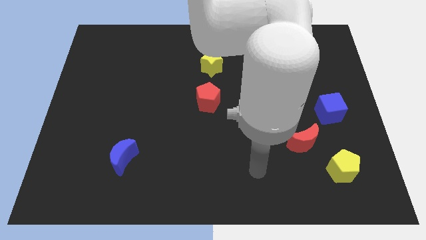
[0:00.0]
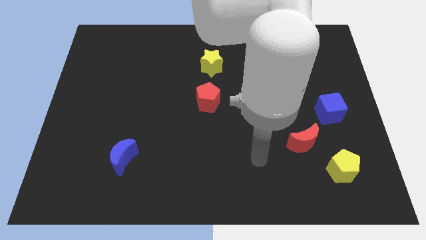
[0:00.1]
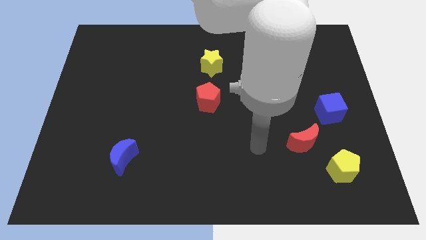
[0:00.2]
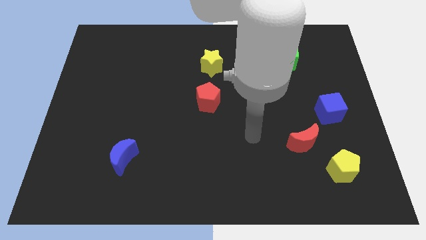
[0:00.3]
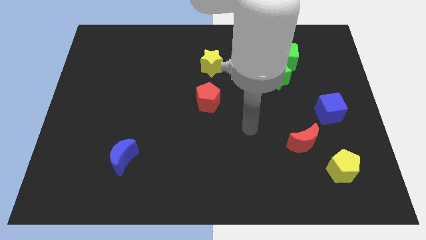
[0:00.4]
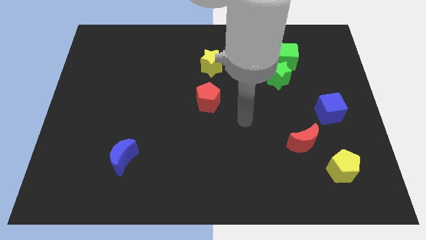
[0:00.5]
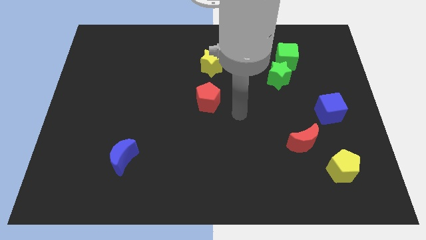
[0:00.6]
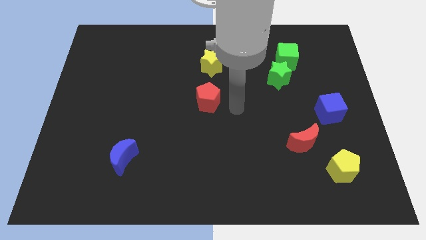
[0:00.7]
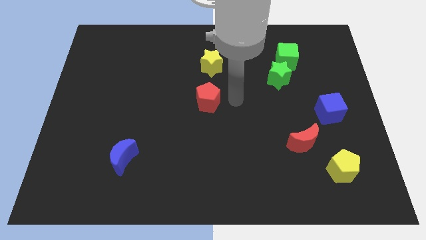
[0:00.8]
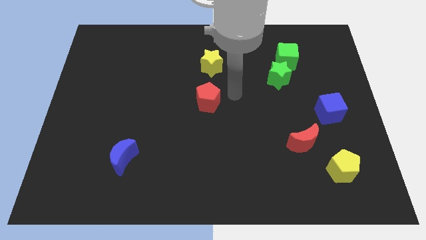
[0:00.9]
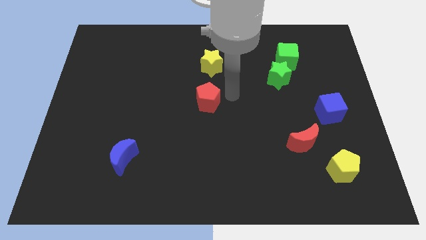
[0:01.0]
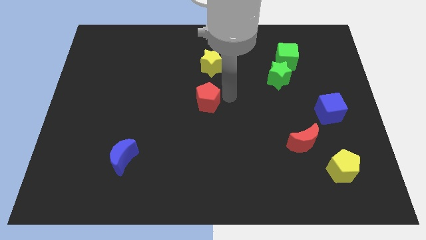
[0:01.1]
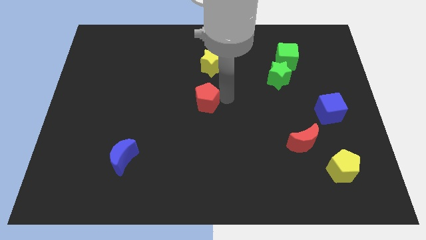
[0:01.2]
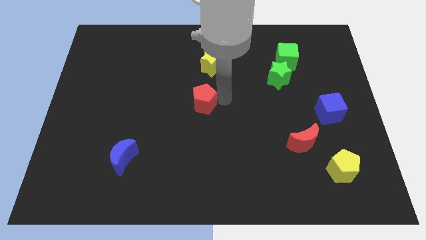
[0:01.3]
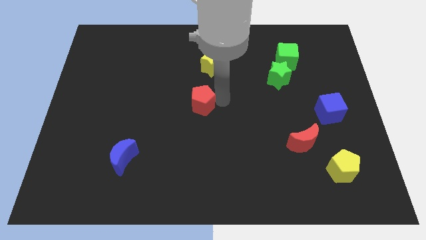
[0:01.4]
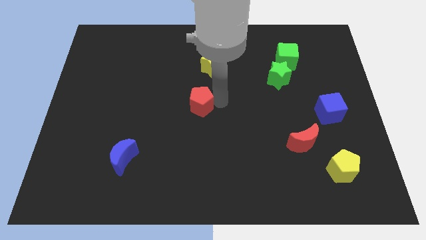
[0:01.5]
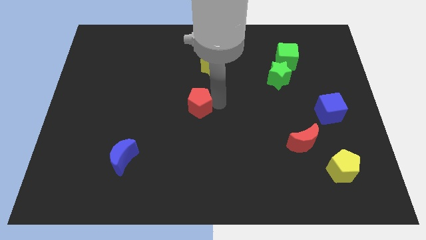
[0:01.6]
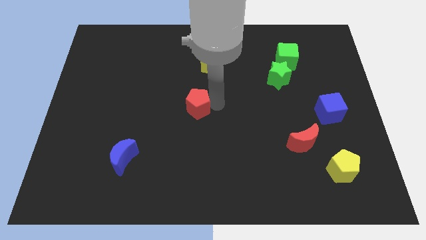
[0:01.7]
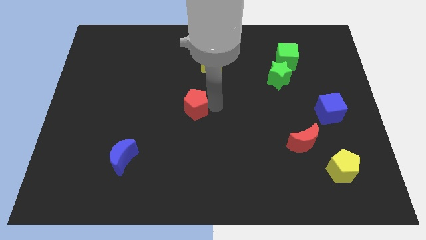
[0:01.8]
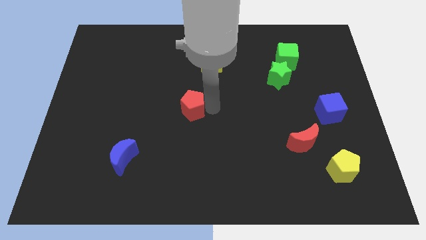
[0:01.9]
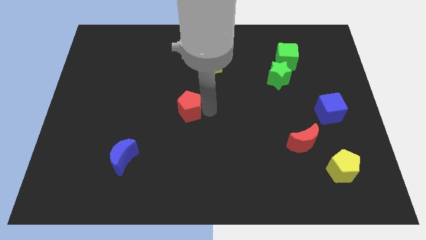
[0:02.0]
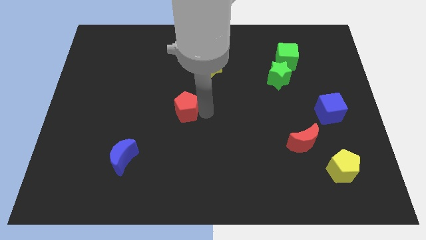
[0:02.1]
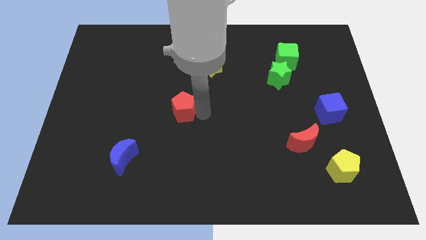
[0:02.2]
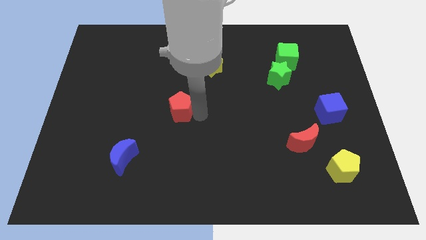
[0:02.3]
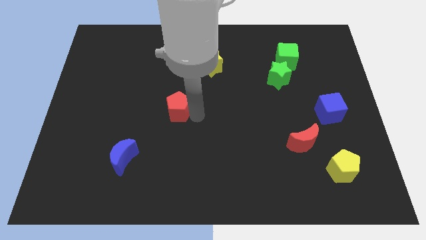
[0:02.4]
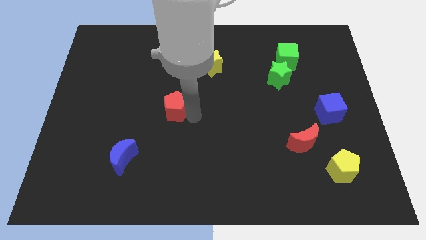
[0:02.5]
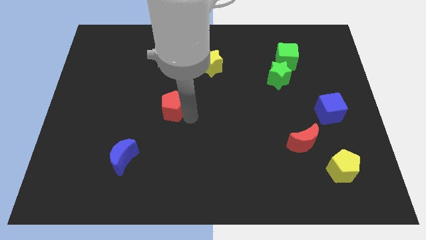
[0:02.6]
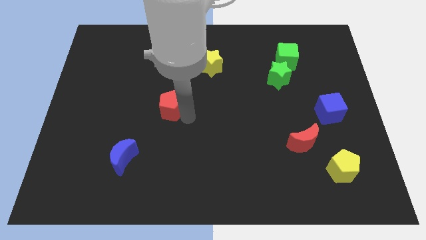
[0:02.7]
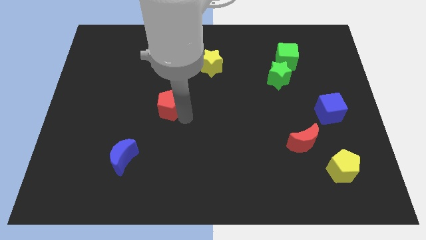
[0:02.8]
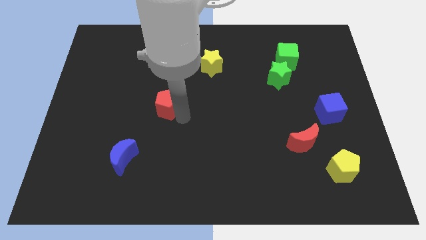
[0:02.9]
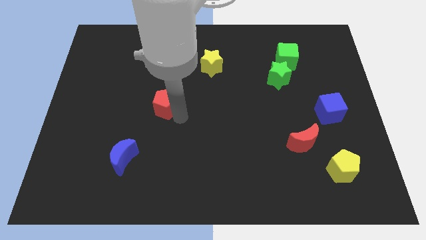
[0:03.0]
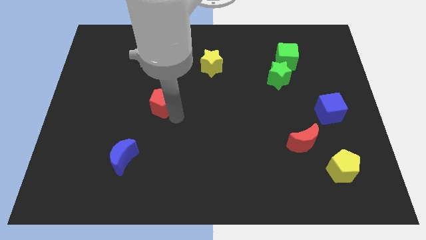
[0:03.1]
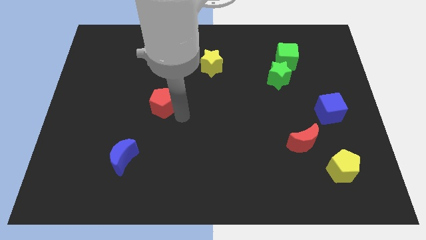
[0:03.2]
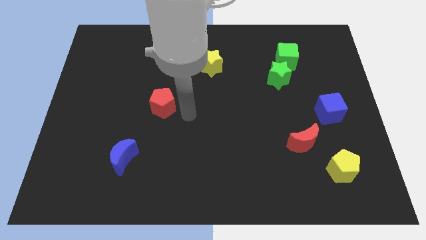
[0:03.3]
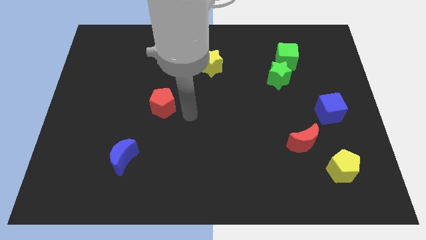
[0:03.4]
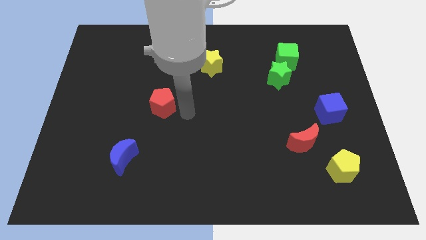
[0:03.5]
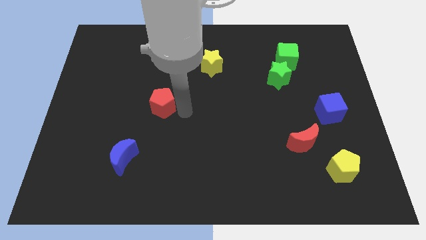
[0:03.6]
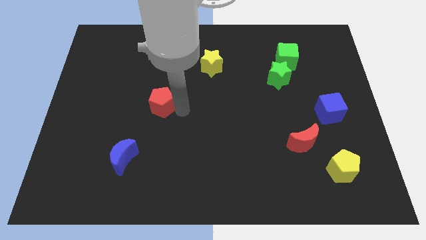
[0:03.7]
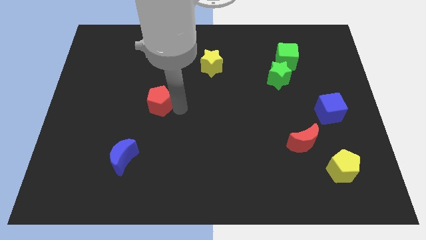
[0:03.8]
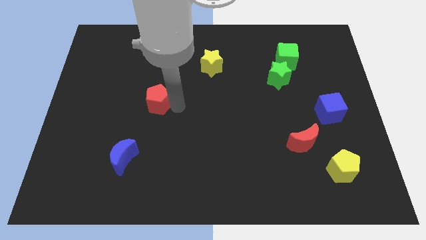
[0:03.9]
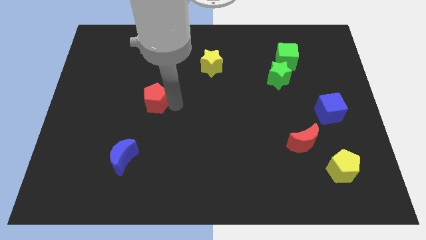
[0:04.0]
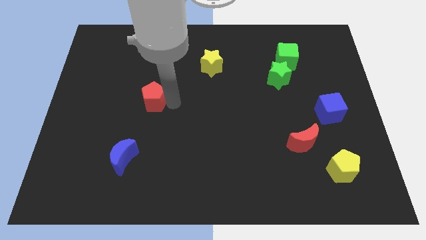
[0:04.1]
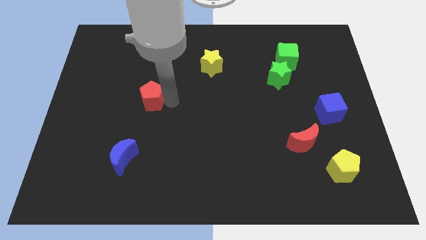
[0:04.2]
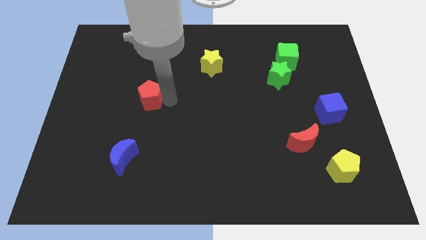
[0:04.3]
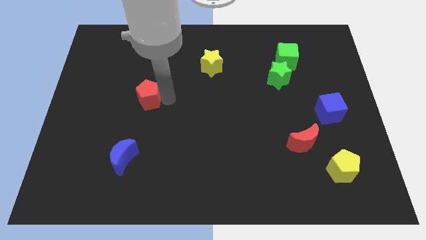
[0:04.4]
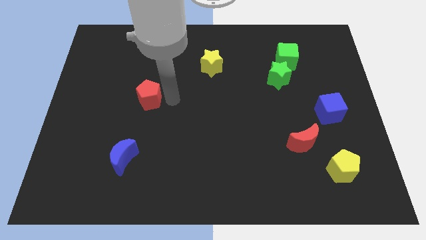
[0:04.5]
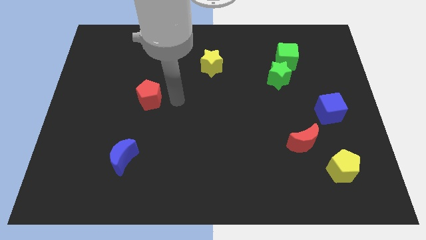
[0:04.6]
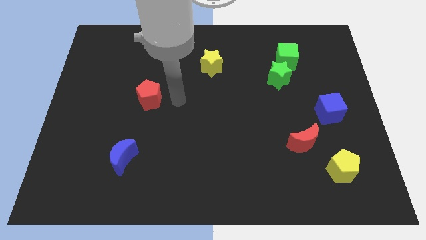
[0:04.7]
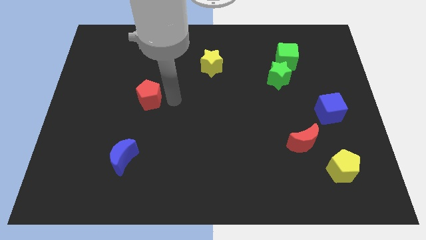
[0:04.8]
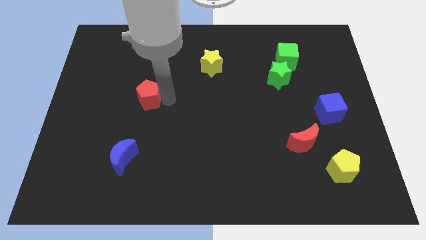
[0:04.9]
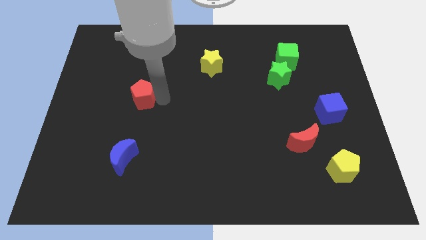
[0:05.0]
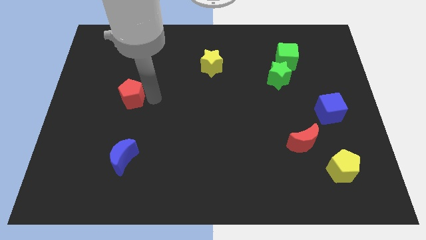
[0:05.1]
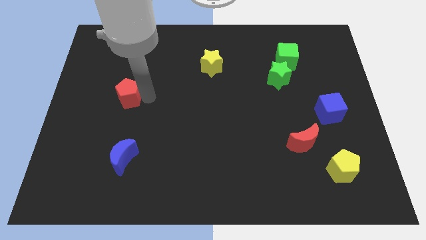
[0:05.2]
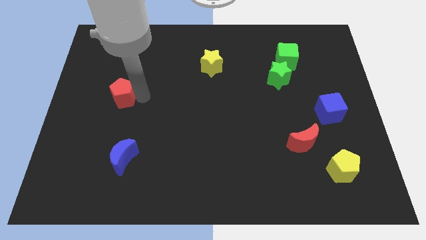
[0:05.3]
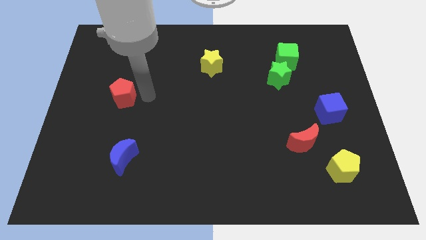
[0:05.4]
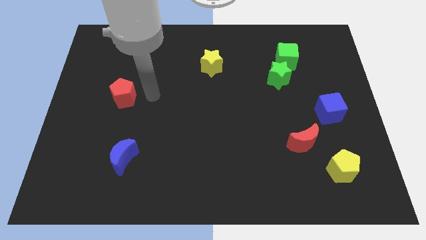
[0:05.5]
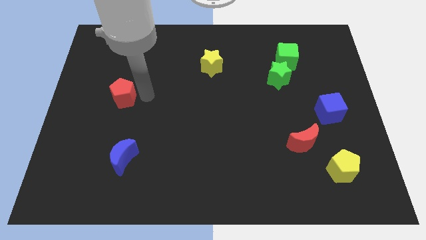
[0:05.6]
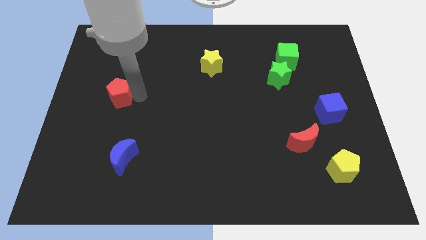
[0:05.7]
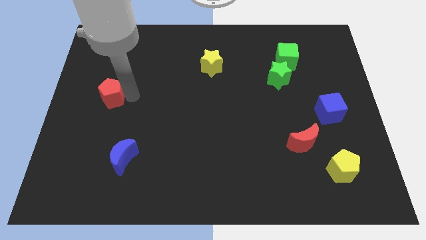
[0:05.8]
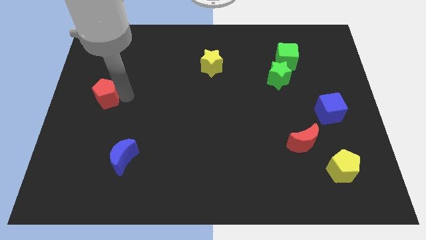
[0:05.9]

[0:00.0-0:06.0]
move the red pentagon to the left side

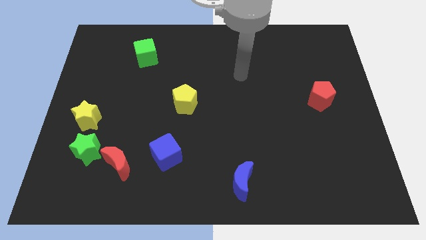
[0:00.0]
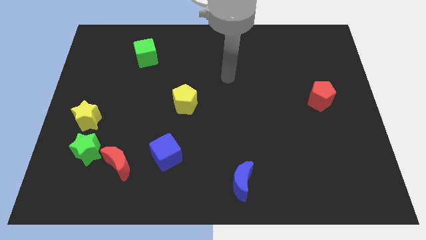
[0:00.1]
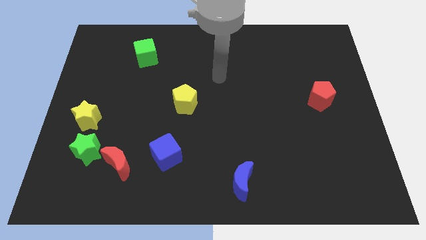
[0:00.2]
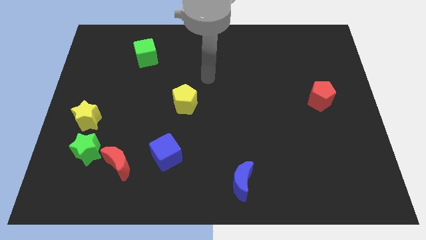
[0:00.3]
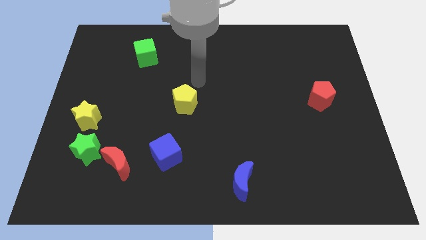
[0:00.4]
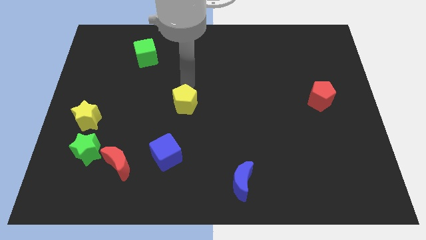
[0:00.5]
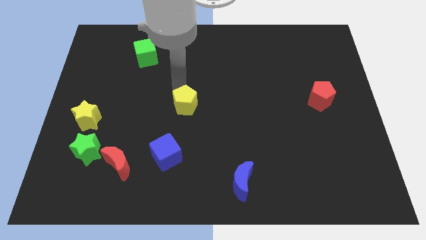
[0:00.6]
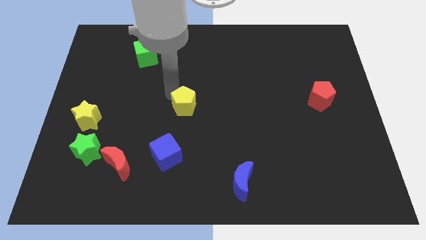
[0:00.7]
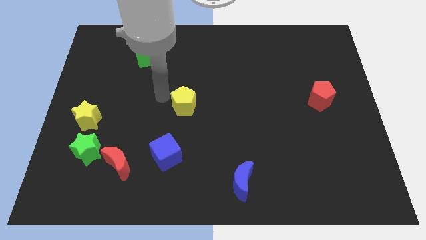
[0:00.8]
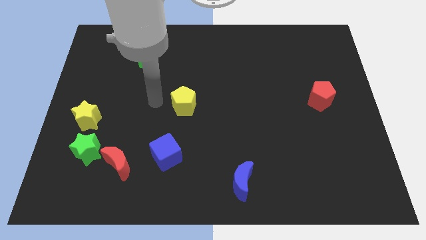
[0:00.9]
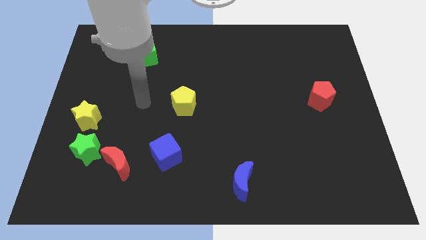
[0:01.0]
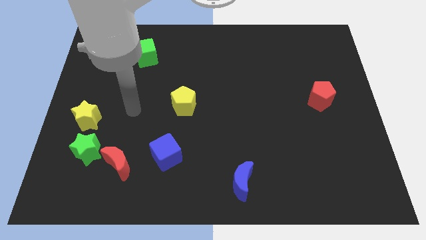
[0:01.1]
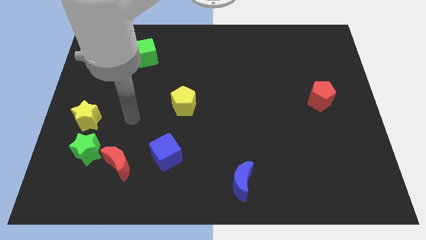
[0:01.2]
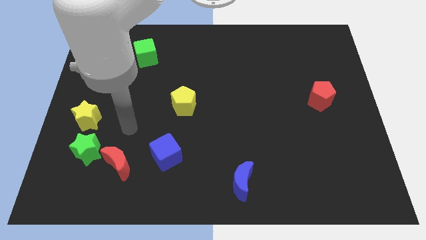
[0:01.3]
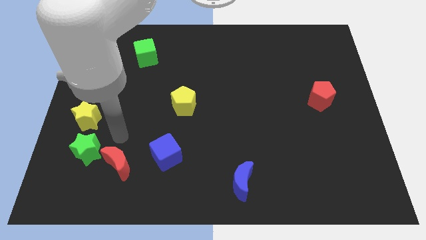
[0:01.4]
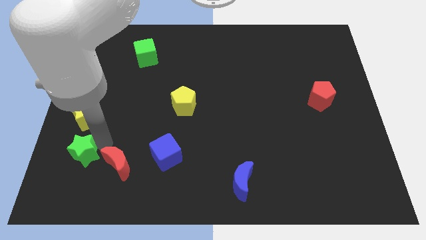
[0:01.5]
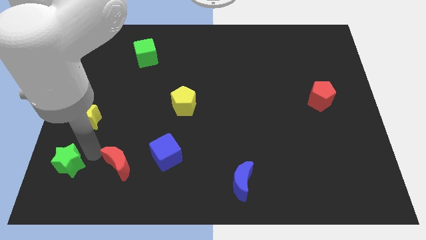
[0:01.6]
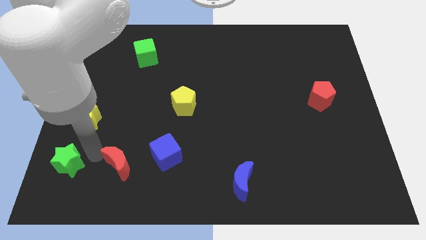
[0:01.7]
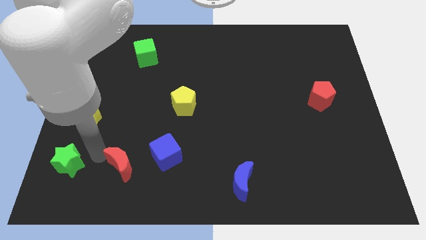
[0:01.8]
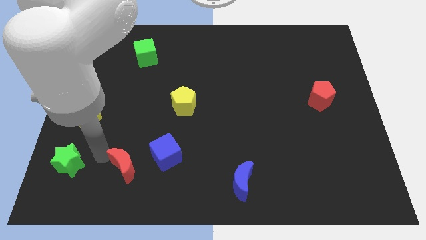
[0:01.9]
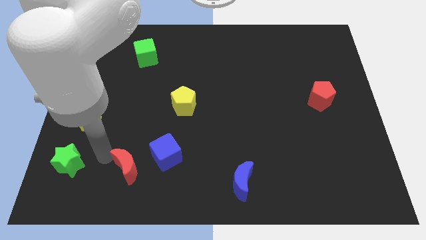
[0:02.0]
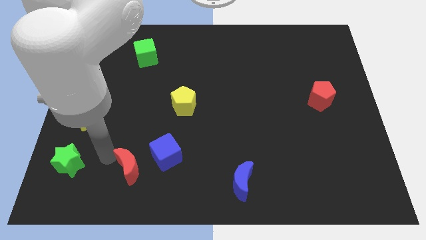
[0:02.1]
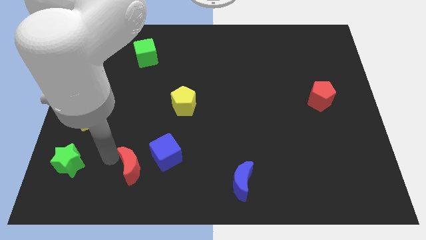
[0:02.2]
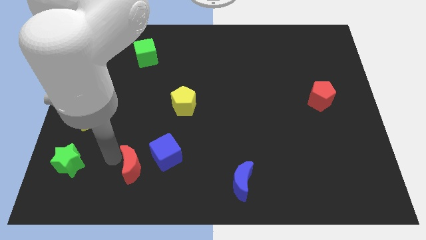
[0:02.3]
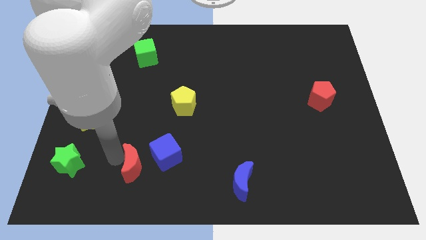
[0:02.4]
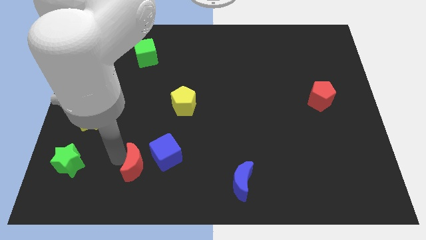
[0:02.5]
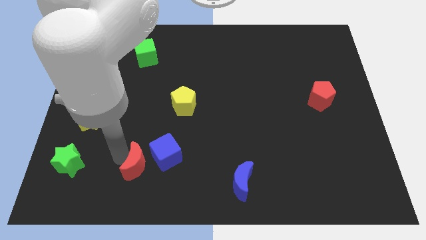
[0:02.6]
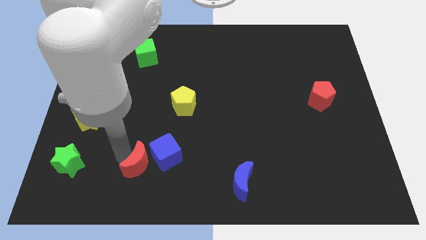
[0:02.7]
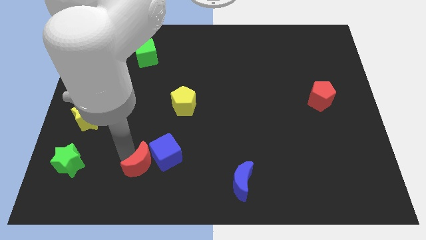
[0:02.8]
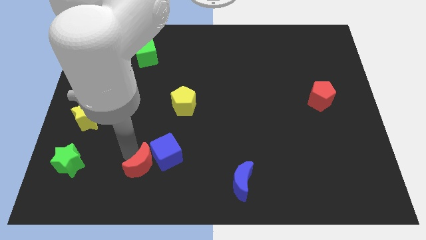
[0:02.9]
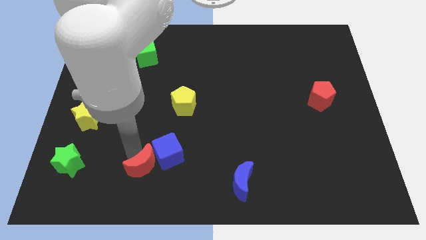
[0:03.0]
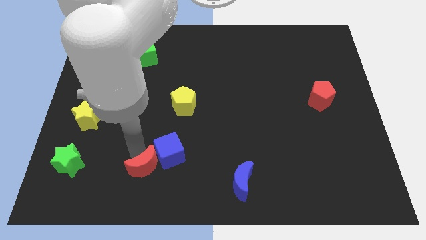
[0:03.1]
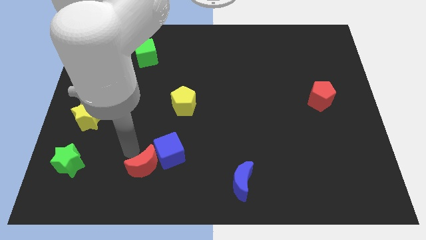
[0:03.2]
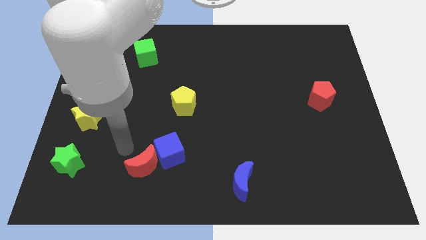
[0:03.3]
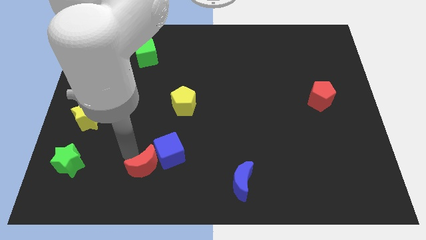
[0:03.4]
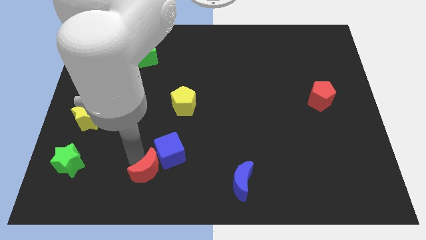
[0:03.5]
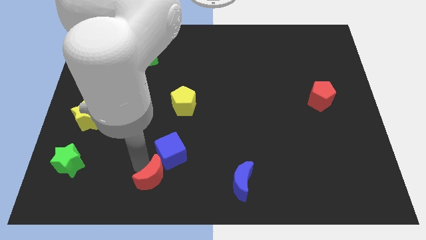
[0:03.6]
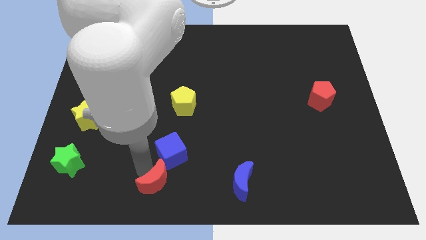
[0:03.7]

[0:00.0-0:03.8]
slide the red moon to the bottom side
